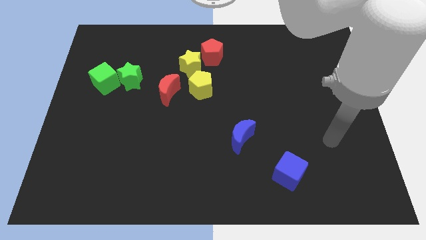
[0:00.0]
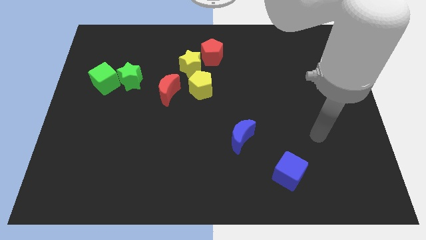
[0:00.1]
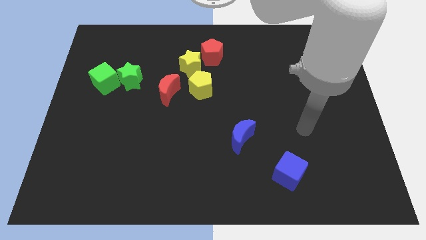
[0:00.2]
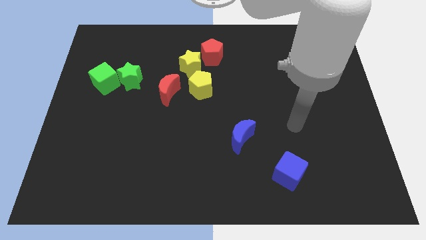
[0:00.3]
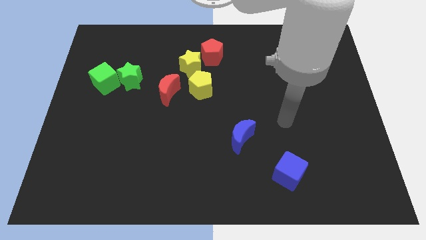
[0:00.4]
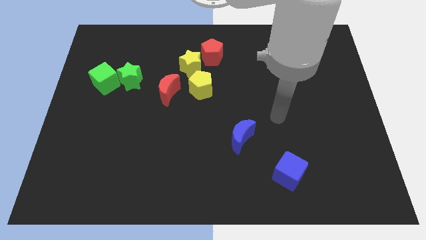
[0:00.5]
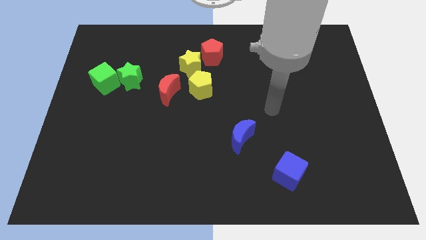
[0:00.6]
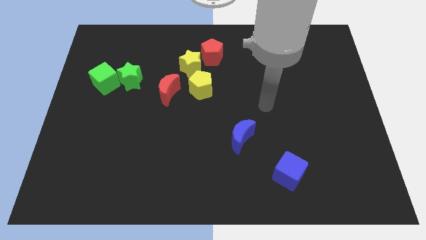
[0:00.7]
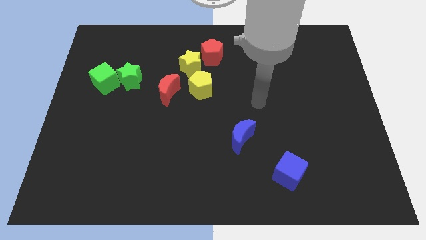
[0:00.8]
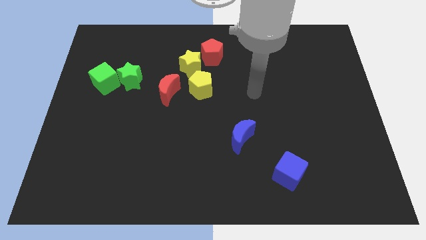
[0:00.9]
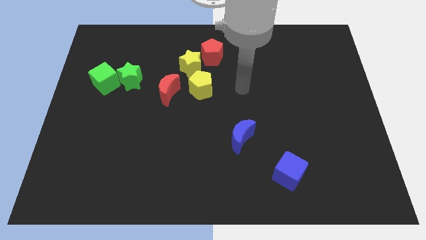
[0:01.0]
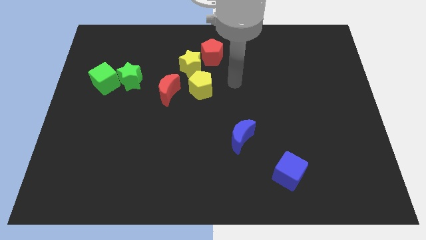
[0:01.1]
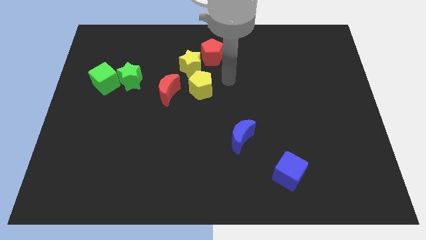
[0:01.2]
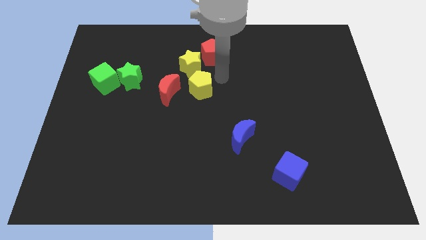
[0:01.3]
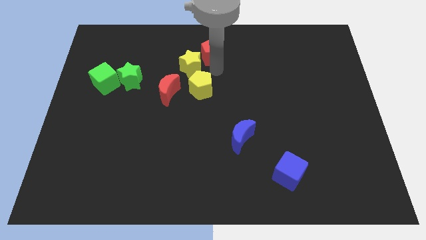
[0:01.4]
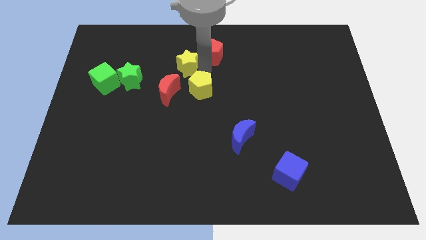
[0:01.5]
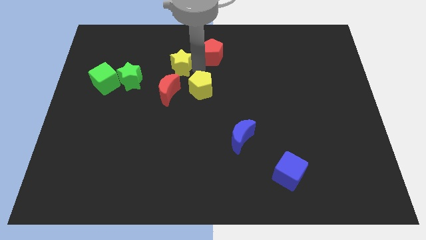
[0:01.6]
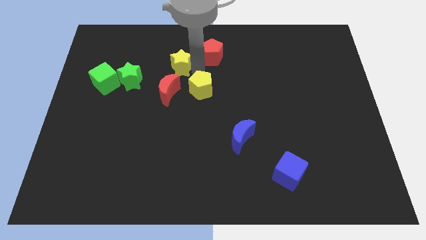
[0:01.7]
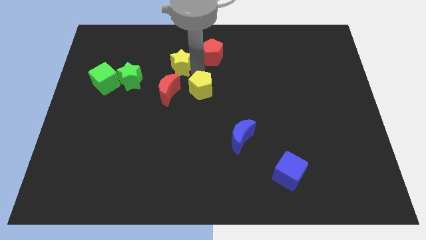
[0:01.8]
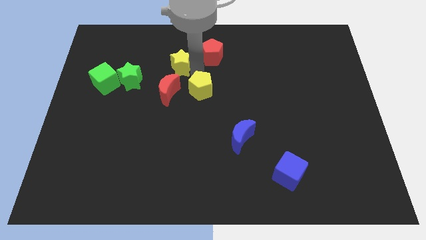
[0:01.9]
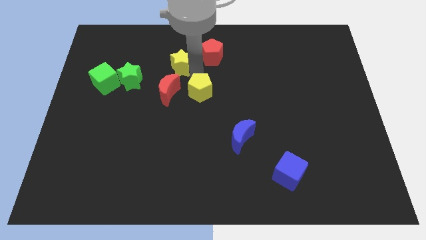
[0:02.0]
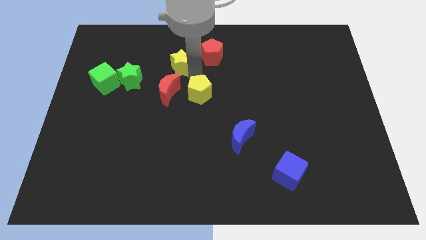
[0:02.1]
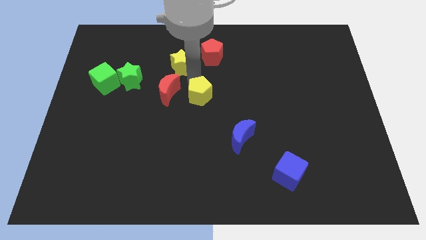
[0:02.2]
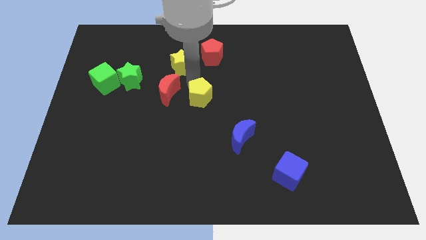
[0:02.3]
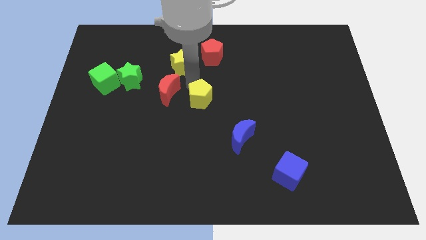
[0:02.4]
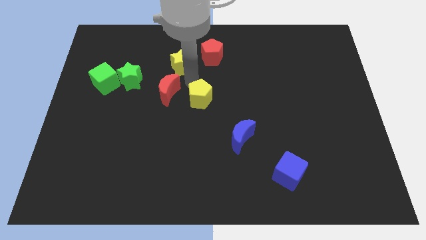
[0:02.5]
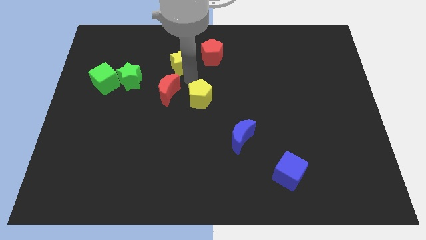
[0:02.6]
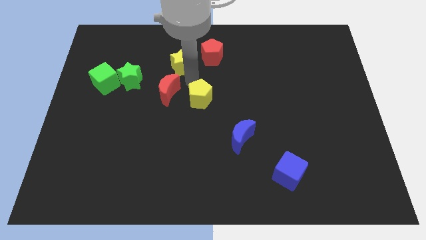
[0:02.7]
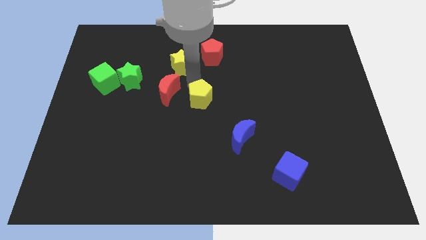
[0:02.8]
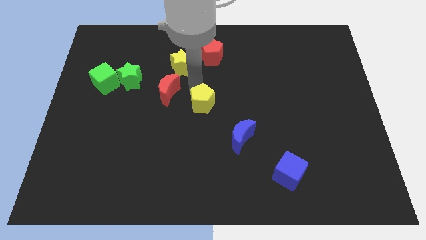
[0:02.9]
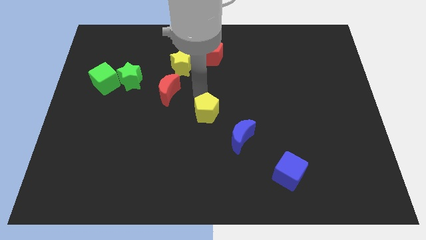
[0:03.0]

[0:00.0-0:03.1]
slightly slide the yellow pentagon downwards

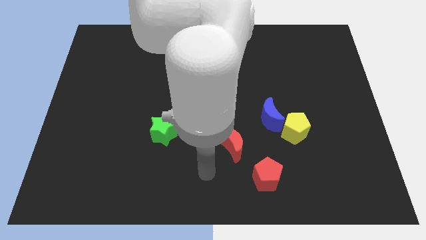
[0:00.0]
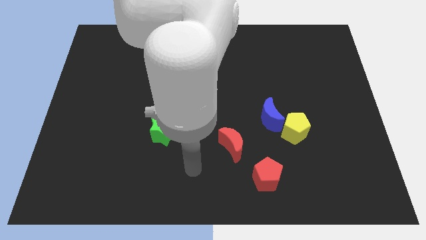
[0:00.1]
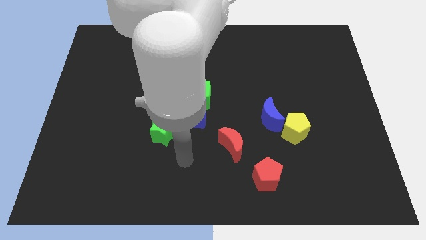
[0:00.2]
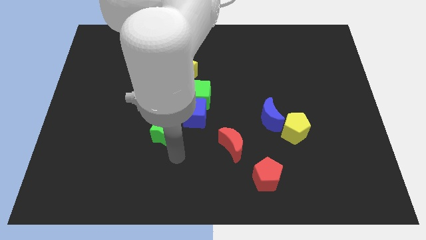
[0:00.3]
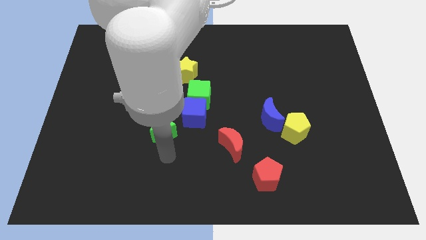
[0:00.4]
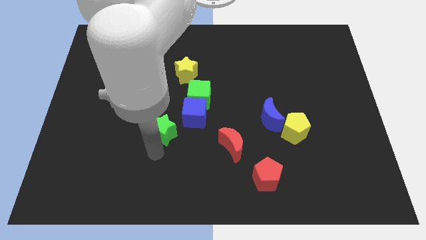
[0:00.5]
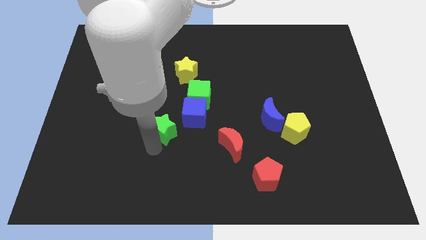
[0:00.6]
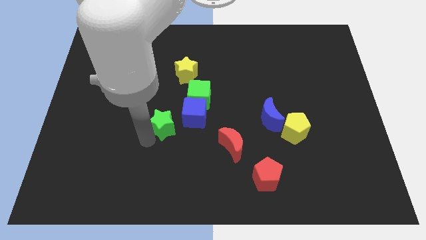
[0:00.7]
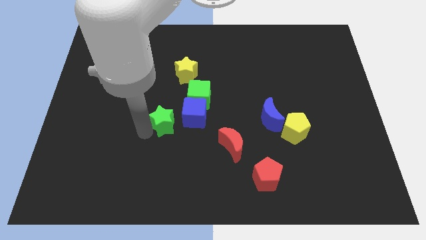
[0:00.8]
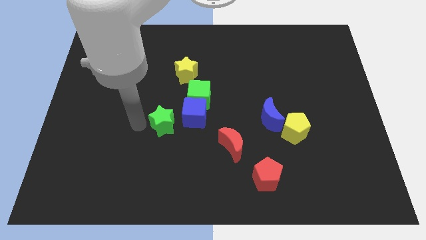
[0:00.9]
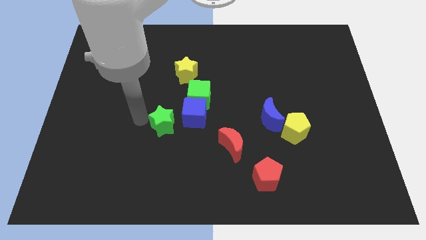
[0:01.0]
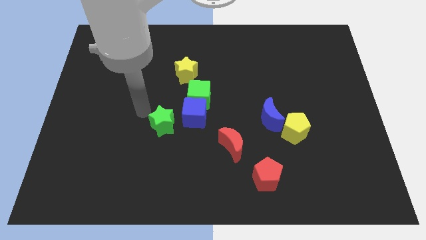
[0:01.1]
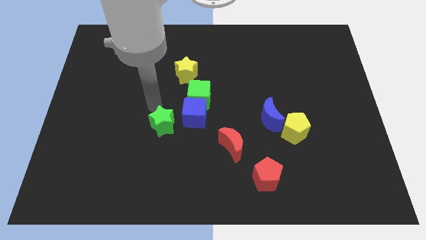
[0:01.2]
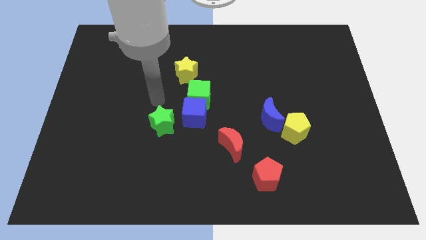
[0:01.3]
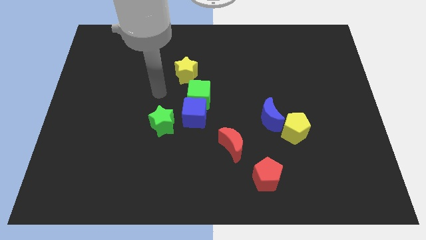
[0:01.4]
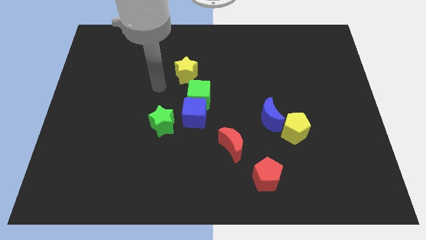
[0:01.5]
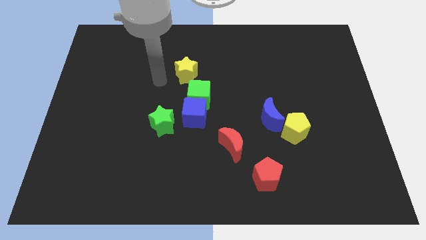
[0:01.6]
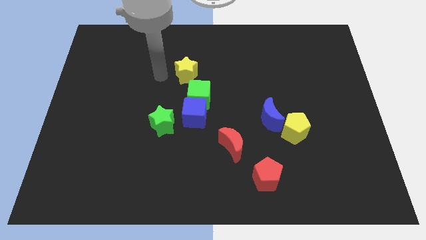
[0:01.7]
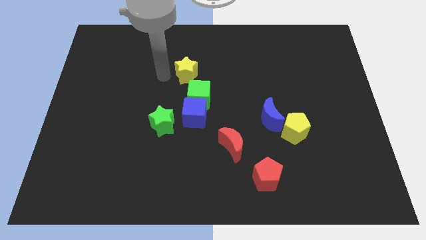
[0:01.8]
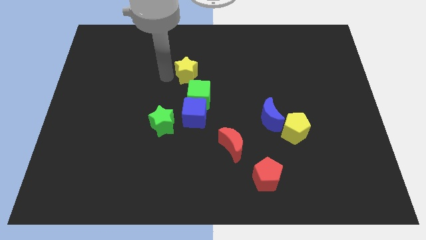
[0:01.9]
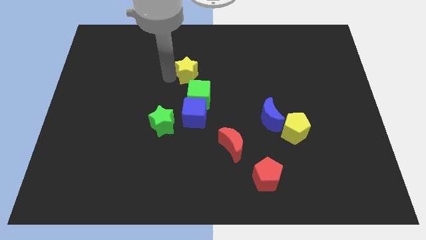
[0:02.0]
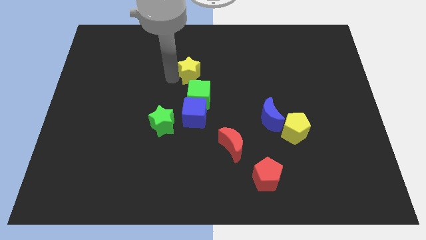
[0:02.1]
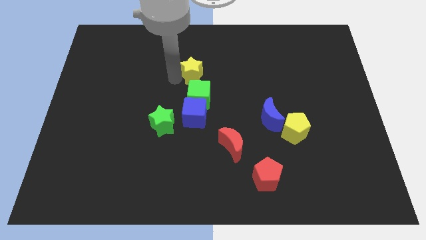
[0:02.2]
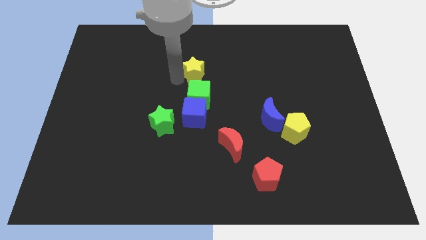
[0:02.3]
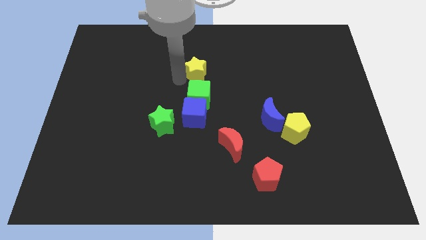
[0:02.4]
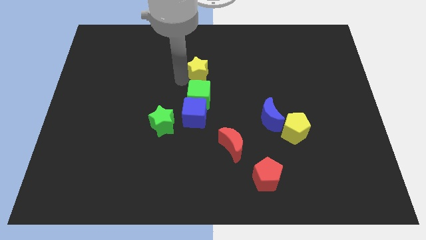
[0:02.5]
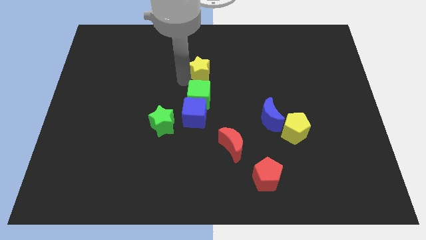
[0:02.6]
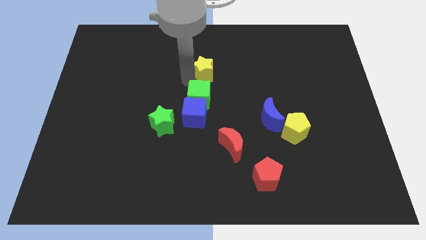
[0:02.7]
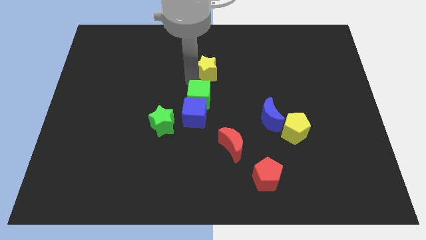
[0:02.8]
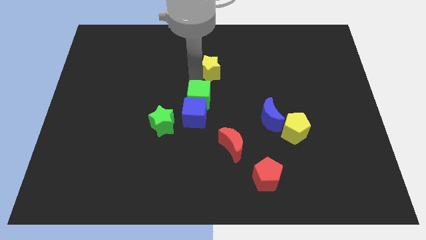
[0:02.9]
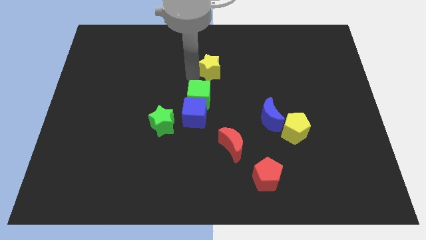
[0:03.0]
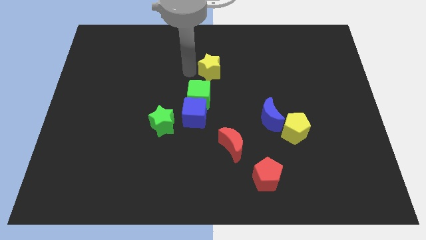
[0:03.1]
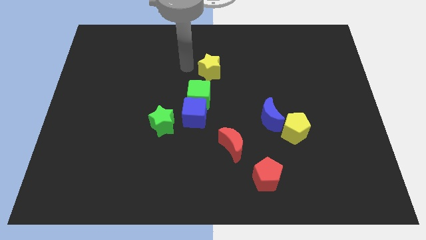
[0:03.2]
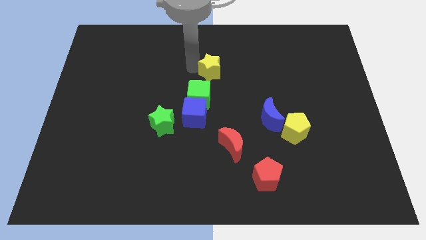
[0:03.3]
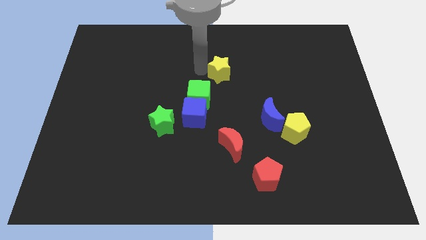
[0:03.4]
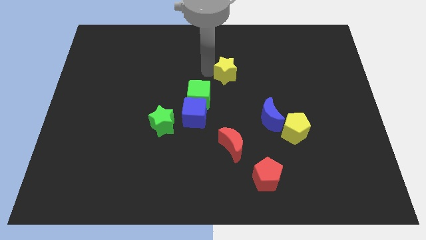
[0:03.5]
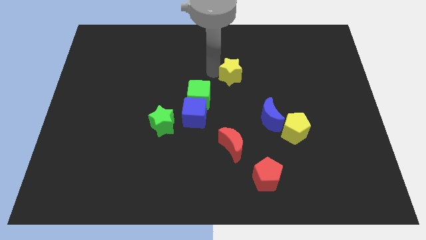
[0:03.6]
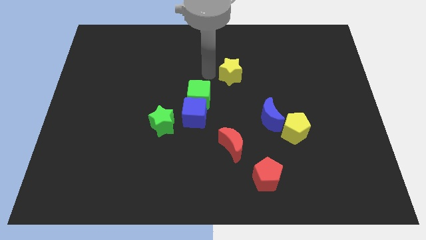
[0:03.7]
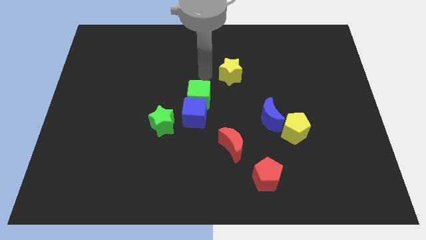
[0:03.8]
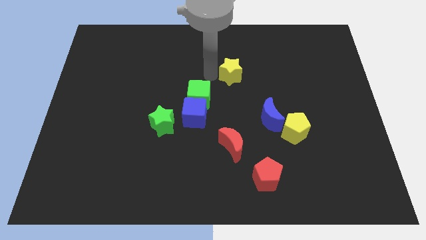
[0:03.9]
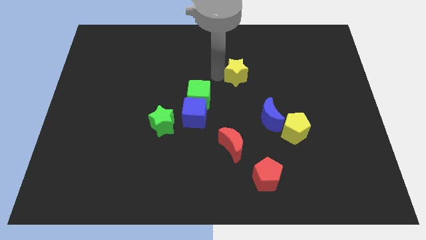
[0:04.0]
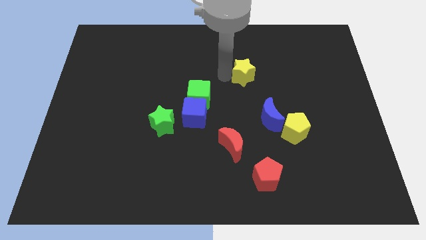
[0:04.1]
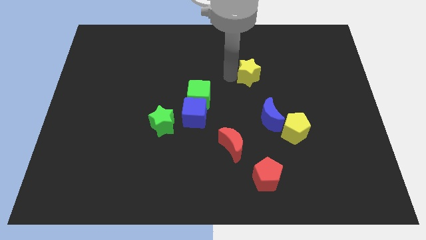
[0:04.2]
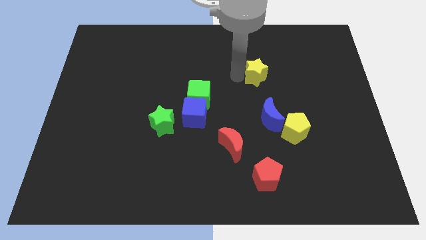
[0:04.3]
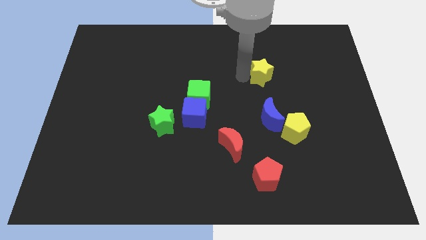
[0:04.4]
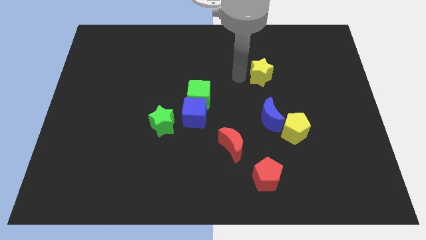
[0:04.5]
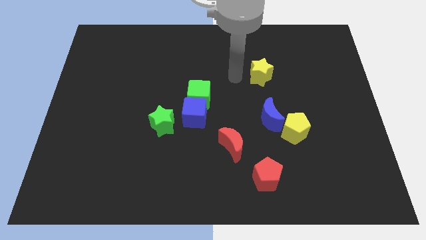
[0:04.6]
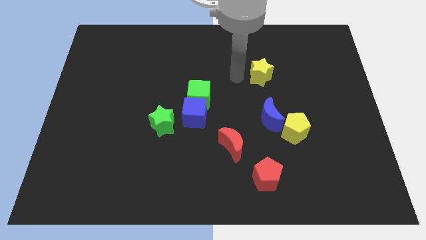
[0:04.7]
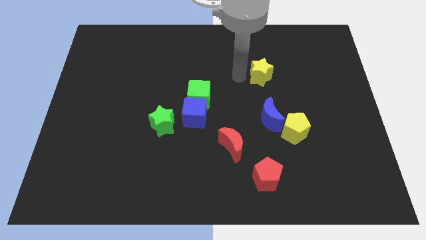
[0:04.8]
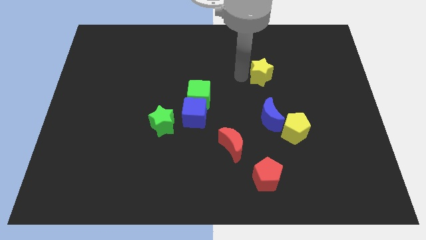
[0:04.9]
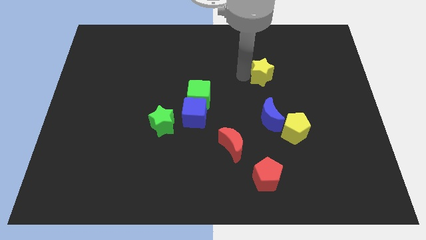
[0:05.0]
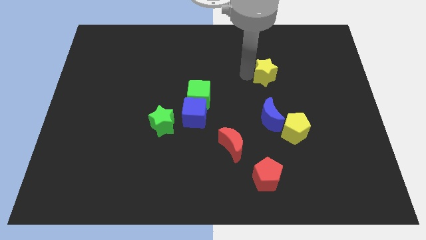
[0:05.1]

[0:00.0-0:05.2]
push the yellow star right

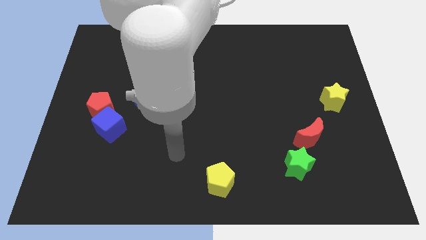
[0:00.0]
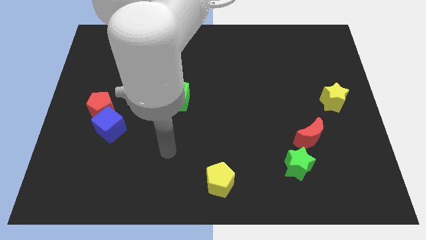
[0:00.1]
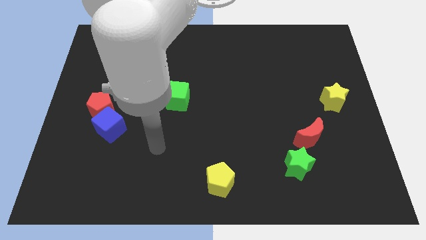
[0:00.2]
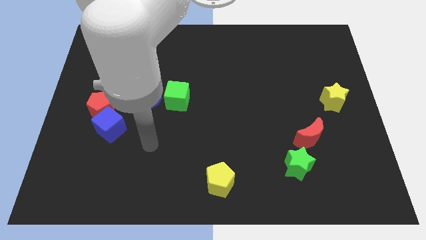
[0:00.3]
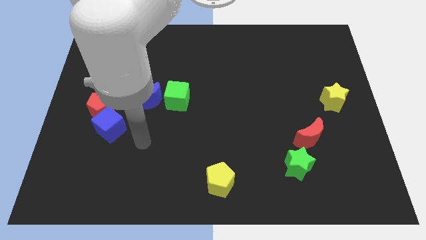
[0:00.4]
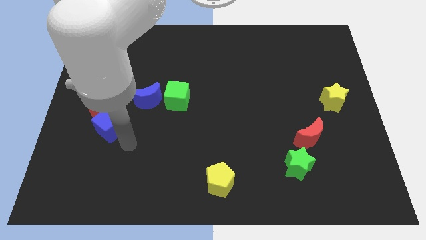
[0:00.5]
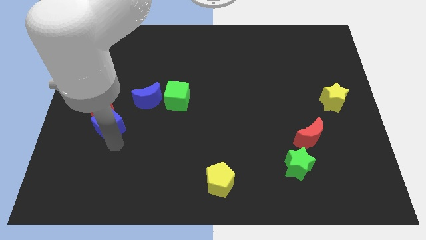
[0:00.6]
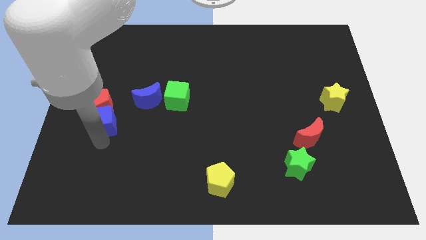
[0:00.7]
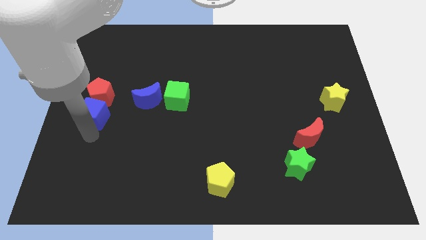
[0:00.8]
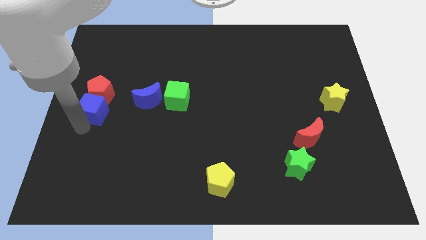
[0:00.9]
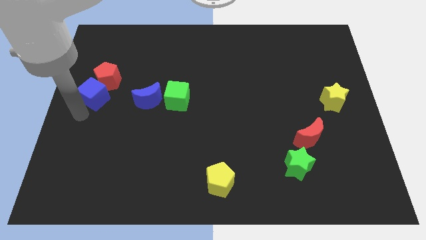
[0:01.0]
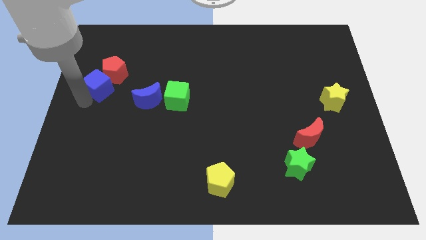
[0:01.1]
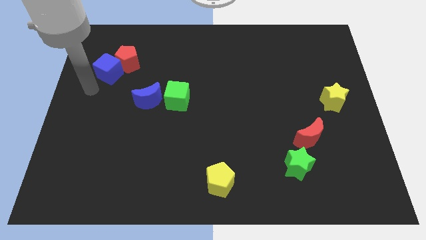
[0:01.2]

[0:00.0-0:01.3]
slightly move the red pentagon up and then right
